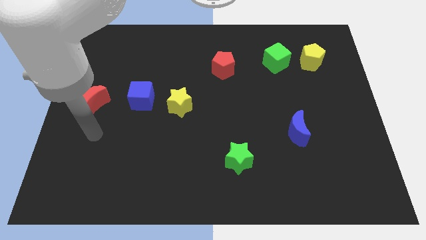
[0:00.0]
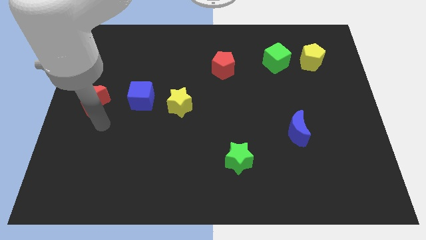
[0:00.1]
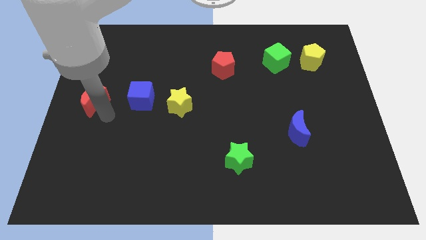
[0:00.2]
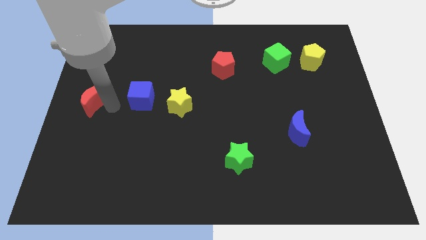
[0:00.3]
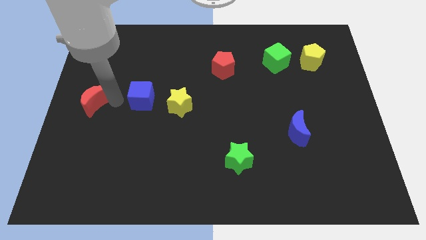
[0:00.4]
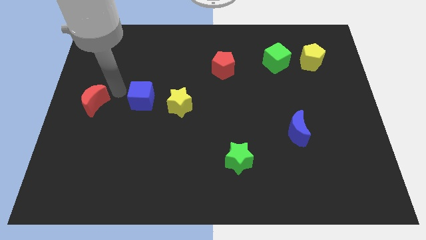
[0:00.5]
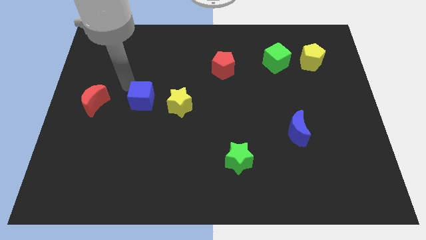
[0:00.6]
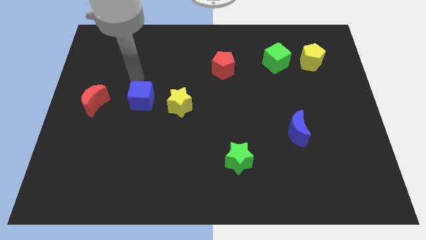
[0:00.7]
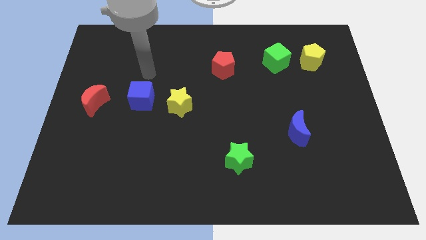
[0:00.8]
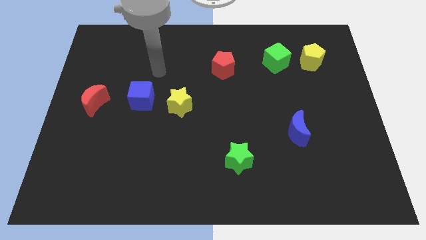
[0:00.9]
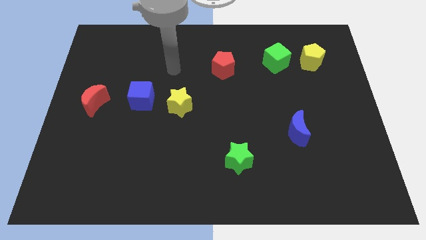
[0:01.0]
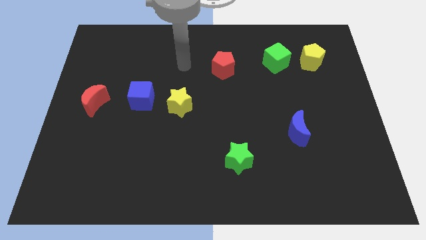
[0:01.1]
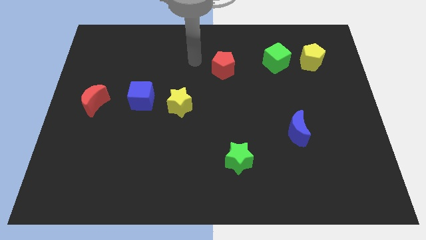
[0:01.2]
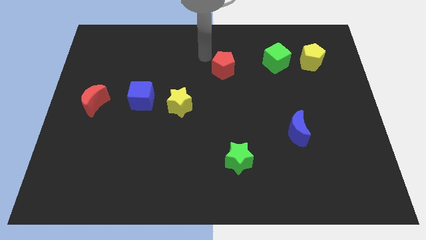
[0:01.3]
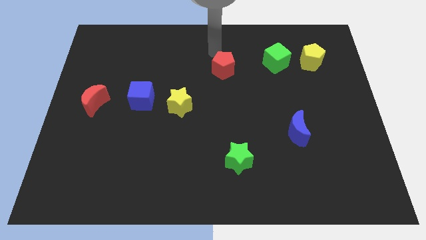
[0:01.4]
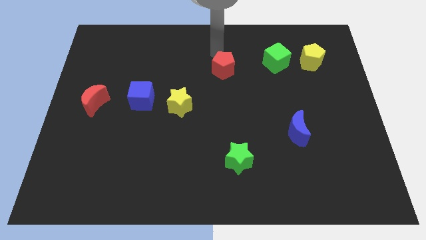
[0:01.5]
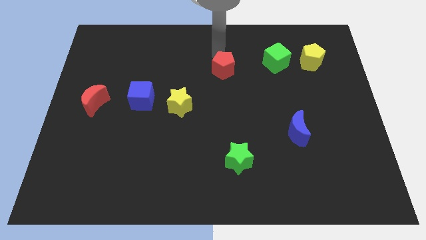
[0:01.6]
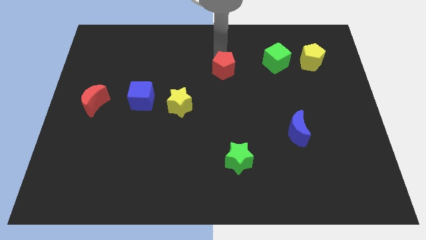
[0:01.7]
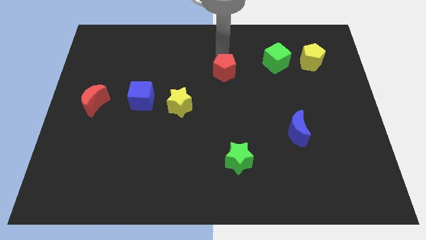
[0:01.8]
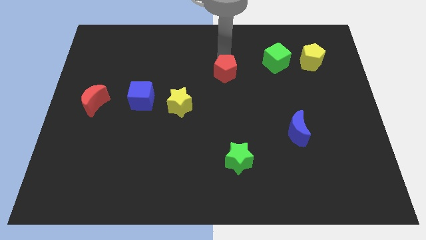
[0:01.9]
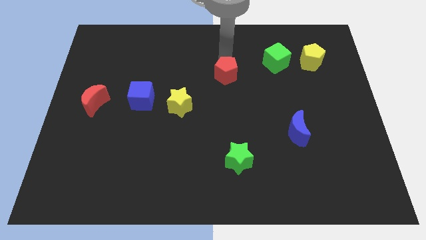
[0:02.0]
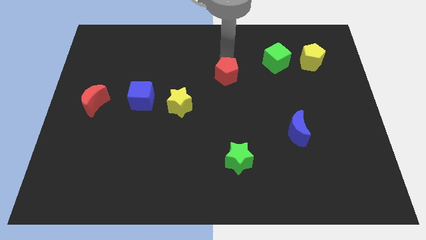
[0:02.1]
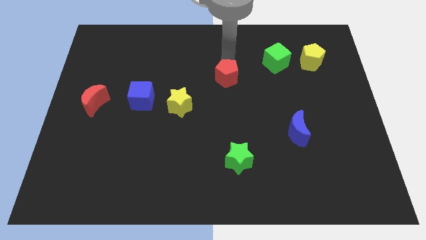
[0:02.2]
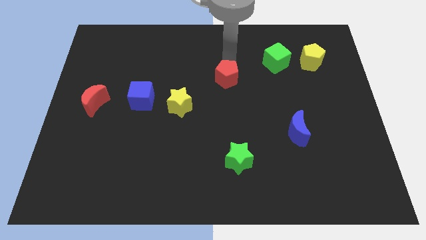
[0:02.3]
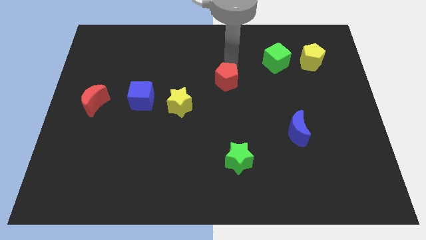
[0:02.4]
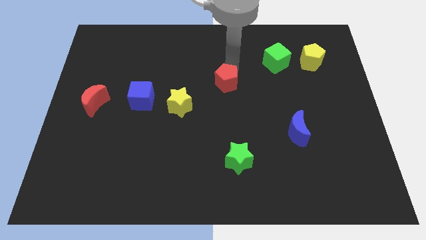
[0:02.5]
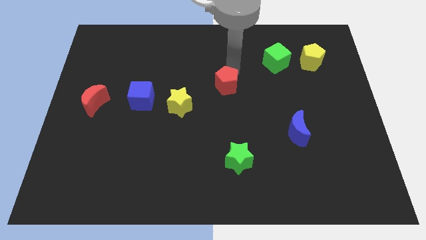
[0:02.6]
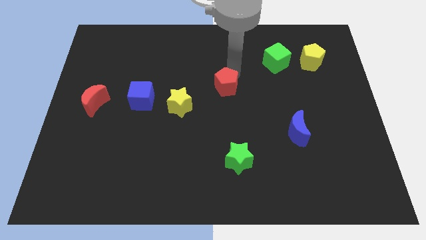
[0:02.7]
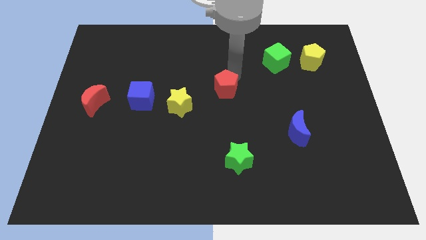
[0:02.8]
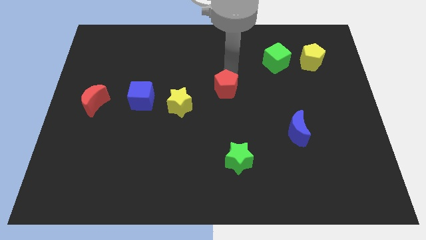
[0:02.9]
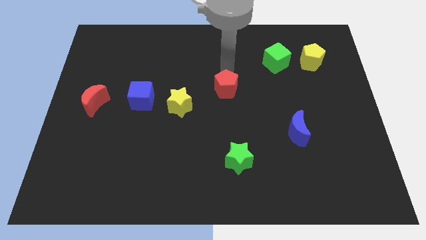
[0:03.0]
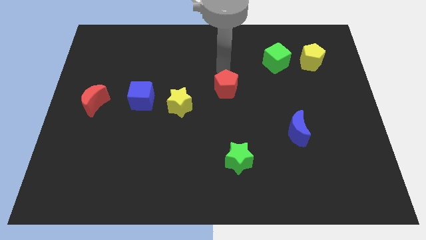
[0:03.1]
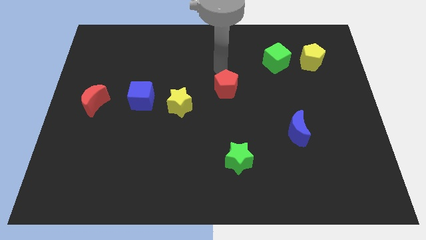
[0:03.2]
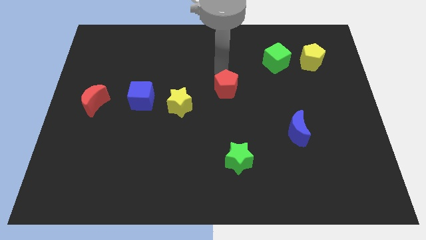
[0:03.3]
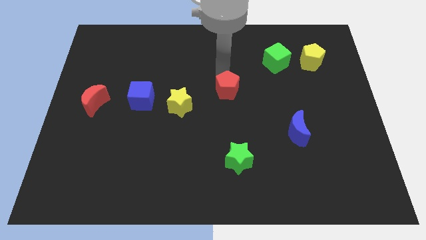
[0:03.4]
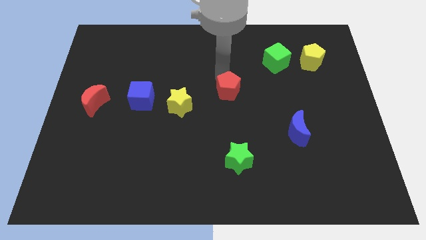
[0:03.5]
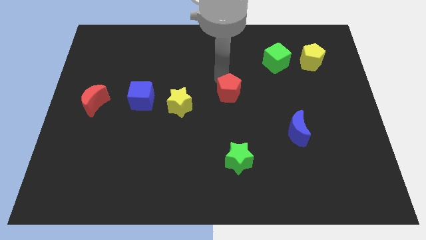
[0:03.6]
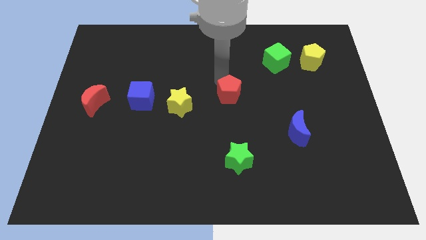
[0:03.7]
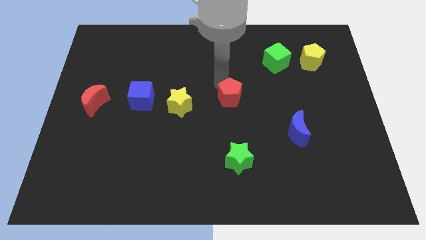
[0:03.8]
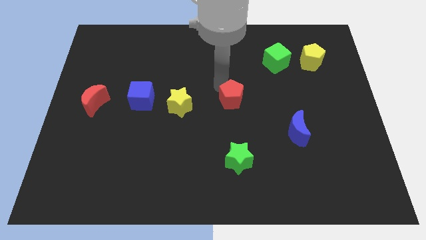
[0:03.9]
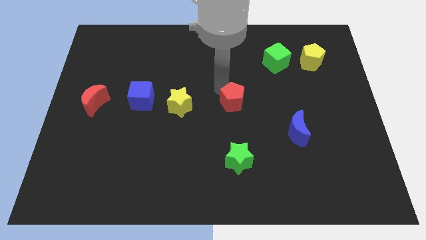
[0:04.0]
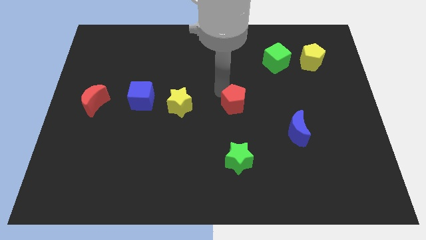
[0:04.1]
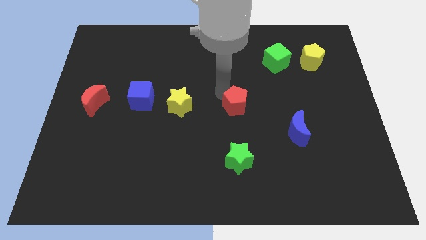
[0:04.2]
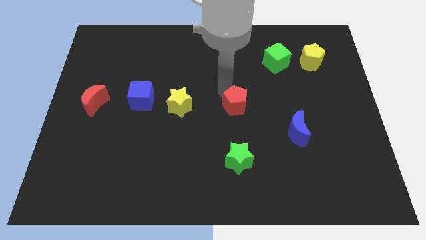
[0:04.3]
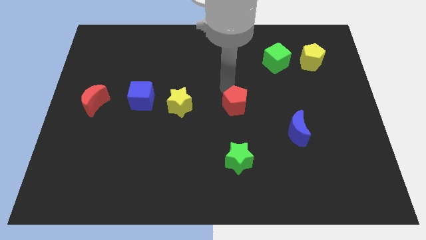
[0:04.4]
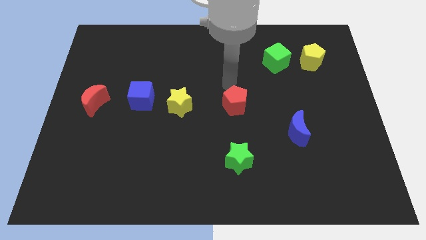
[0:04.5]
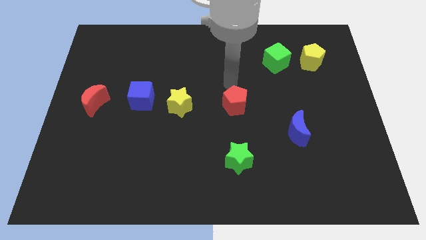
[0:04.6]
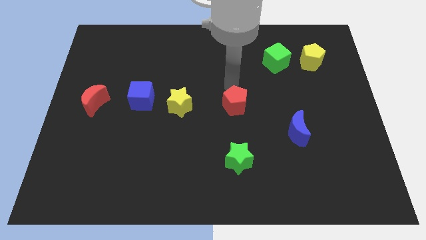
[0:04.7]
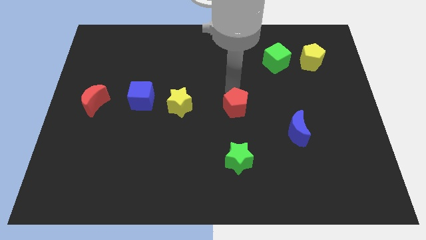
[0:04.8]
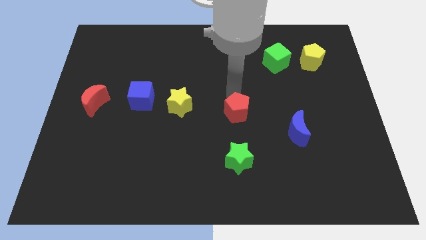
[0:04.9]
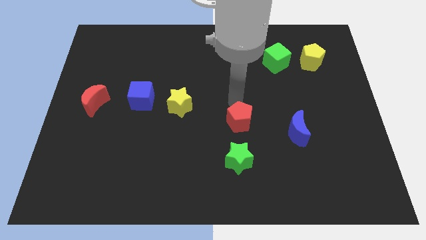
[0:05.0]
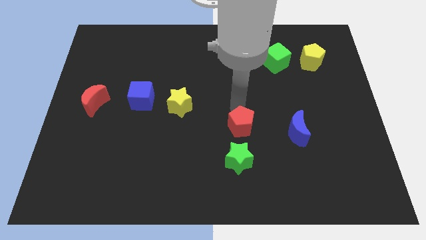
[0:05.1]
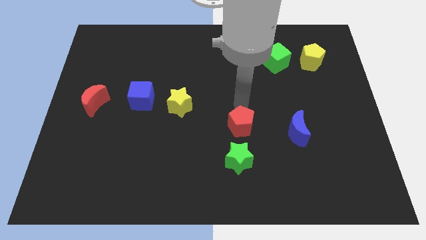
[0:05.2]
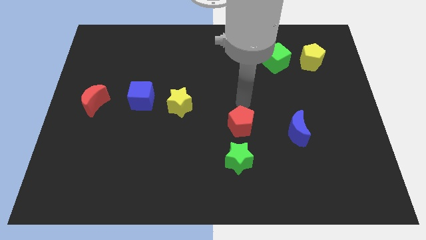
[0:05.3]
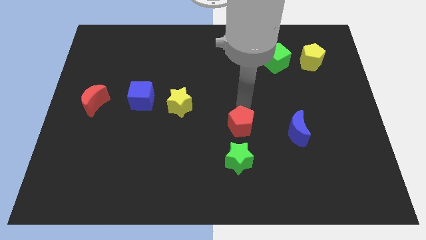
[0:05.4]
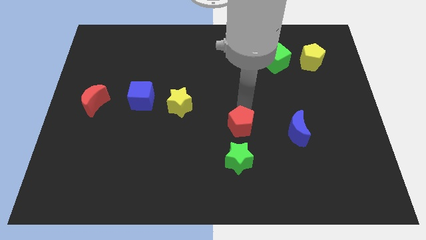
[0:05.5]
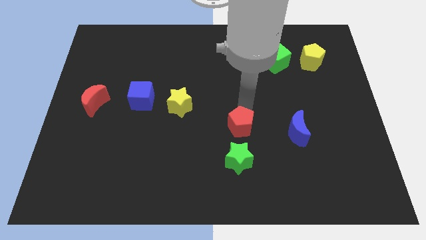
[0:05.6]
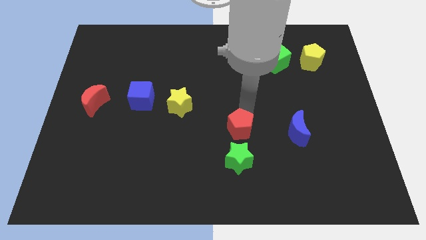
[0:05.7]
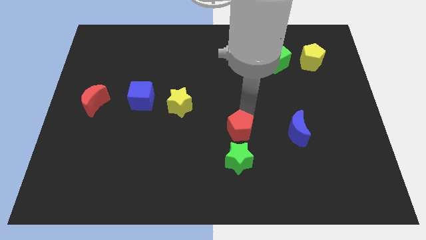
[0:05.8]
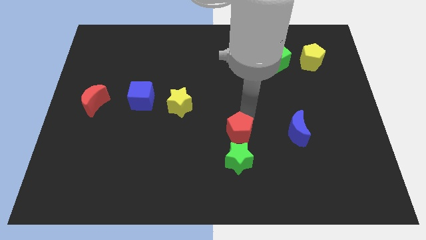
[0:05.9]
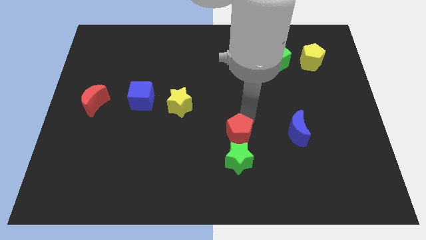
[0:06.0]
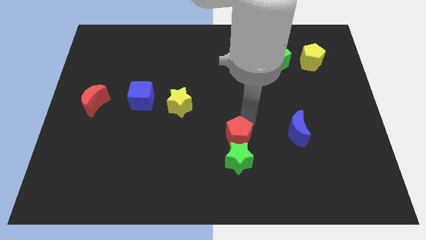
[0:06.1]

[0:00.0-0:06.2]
put the red pentagon to the green star

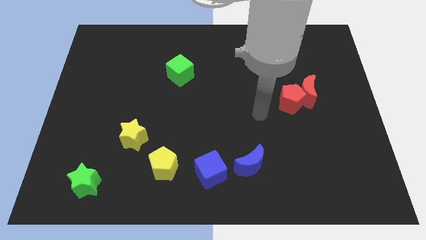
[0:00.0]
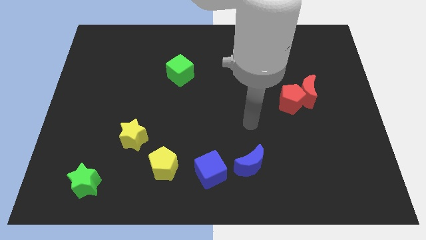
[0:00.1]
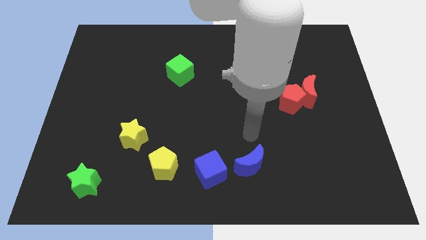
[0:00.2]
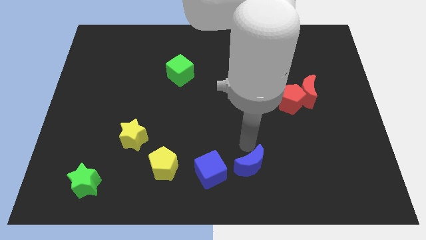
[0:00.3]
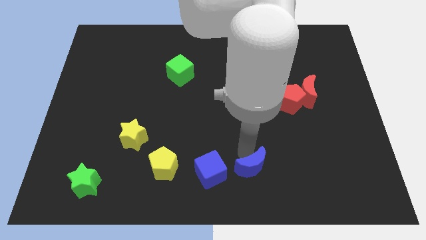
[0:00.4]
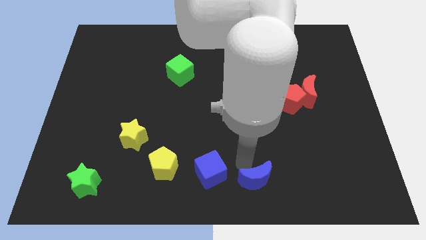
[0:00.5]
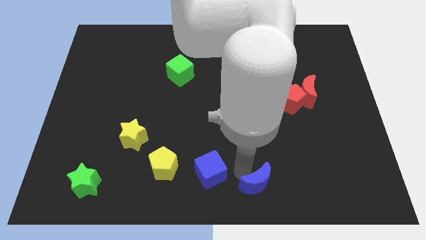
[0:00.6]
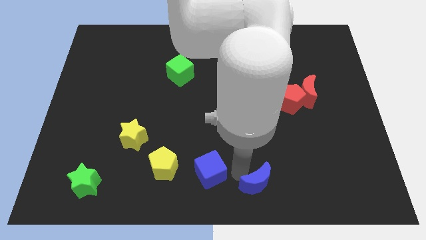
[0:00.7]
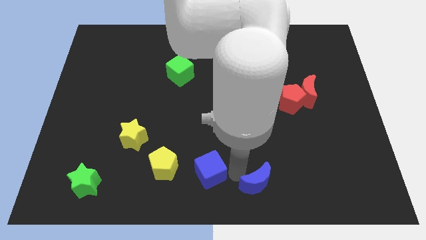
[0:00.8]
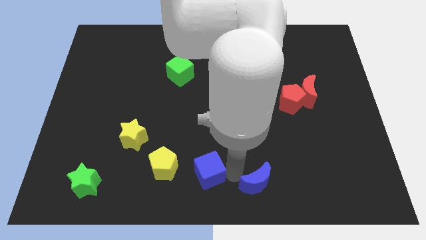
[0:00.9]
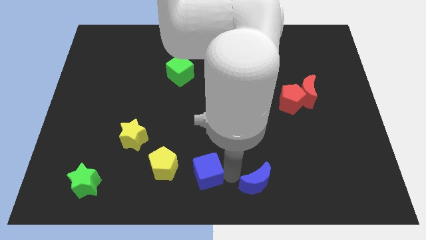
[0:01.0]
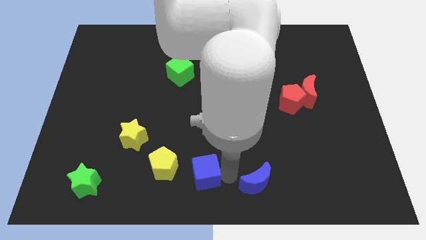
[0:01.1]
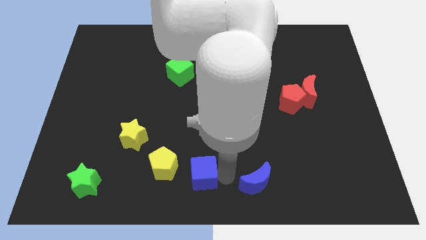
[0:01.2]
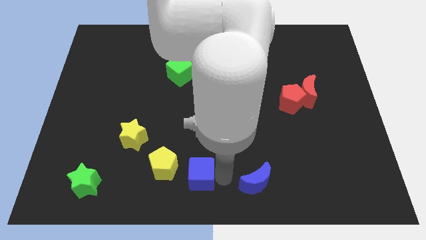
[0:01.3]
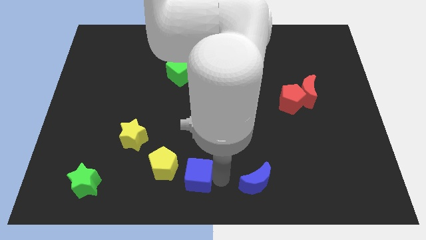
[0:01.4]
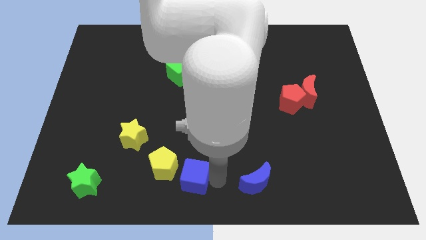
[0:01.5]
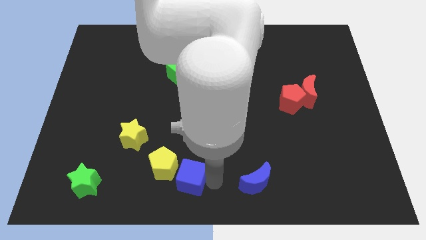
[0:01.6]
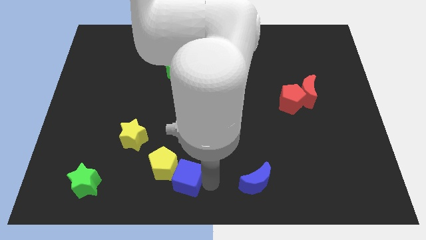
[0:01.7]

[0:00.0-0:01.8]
move the blue cube close to the yellow pentagon
